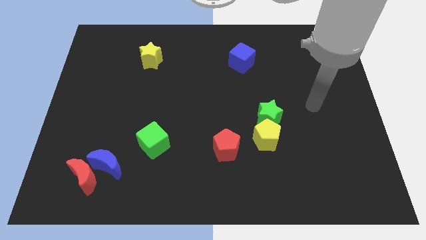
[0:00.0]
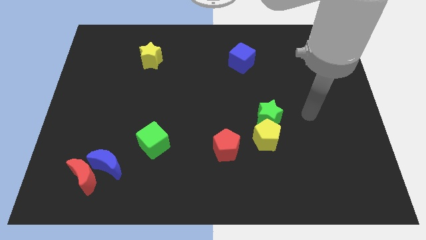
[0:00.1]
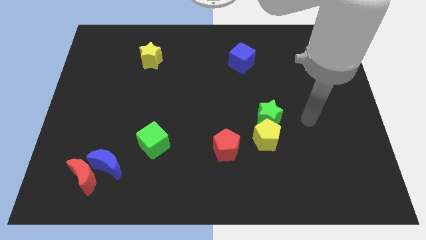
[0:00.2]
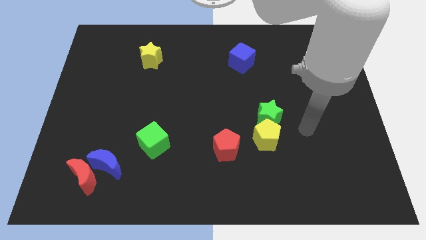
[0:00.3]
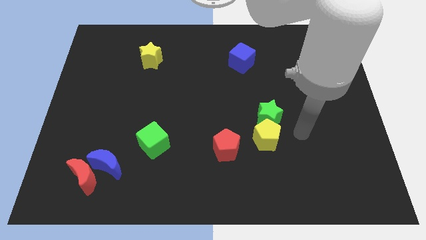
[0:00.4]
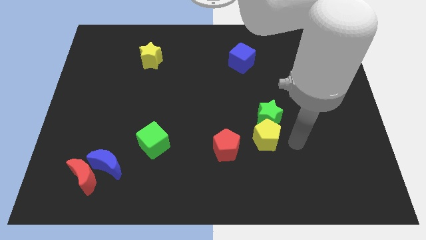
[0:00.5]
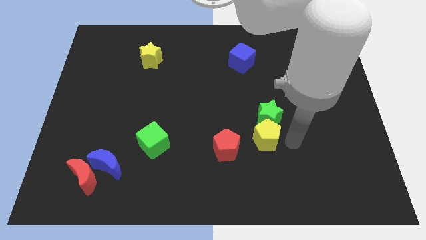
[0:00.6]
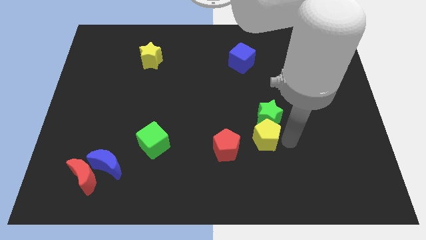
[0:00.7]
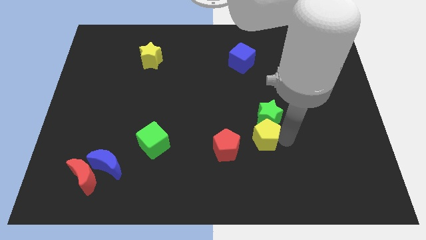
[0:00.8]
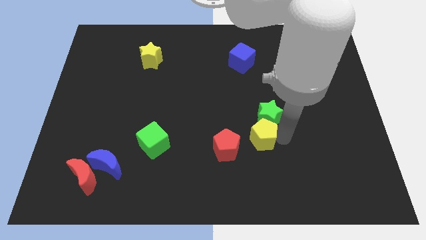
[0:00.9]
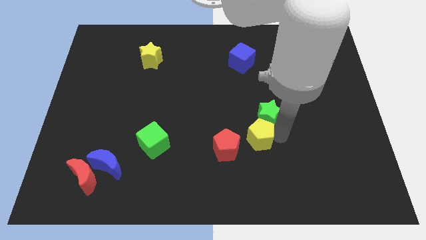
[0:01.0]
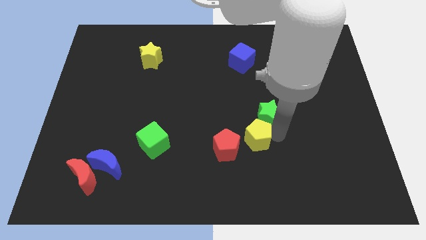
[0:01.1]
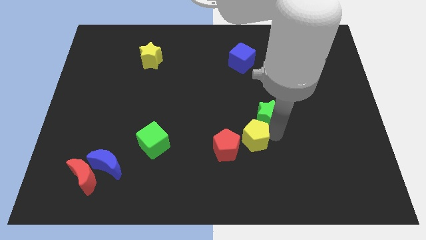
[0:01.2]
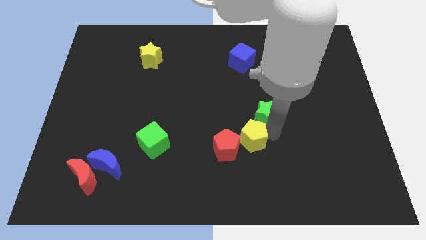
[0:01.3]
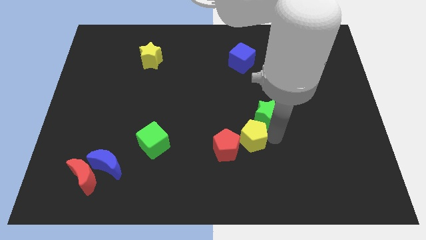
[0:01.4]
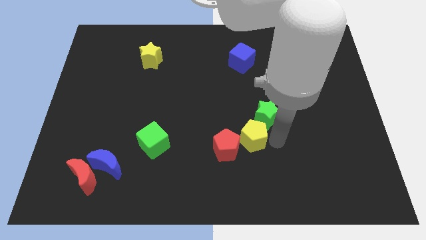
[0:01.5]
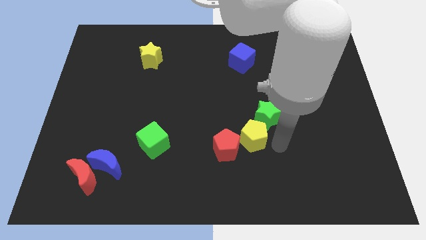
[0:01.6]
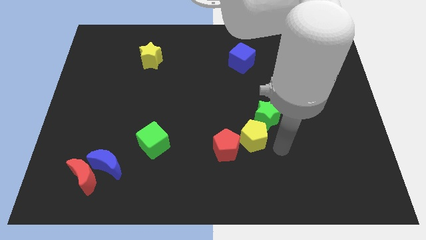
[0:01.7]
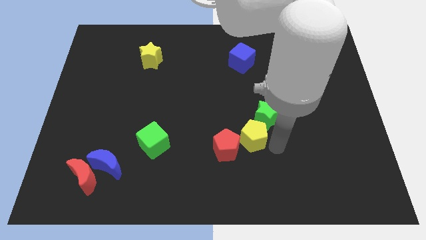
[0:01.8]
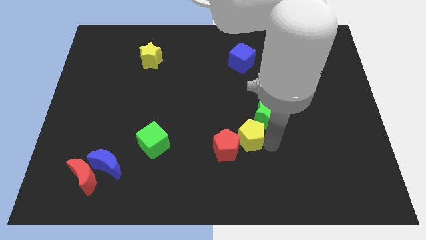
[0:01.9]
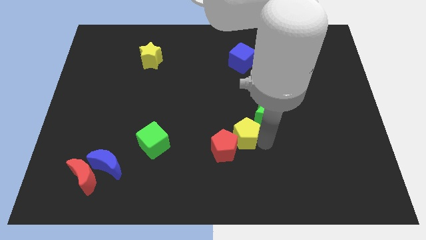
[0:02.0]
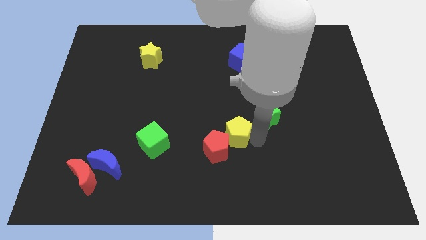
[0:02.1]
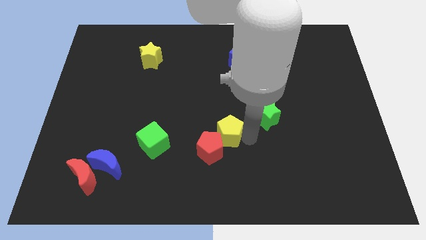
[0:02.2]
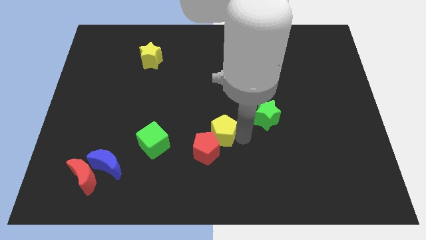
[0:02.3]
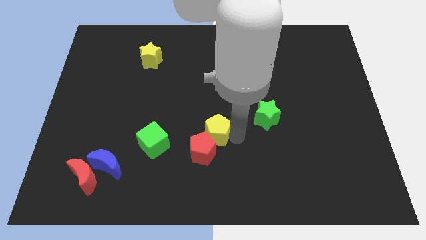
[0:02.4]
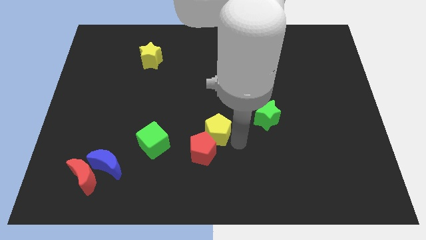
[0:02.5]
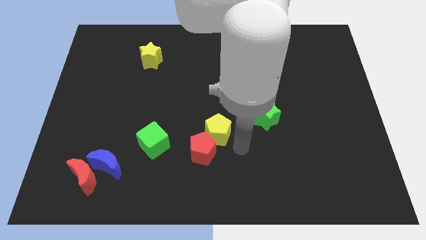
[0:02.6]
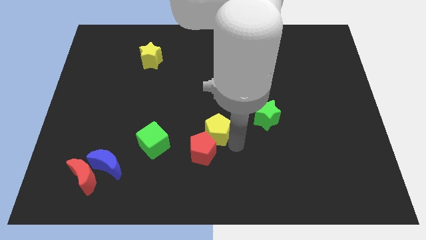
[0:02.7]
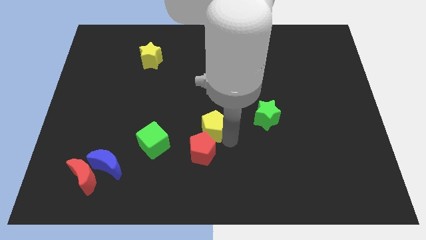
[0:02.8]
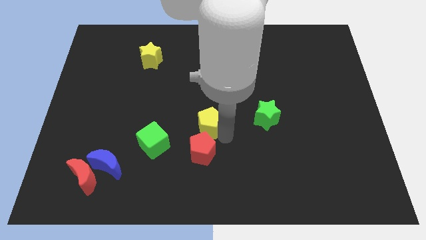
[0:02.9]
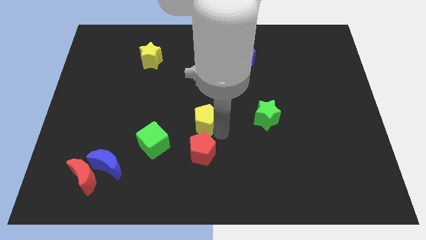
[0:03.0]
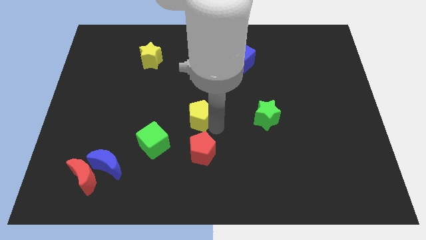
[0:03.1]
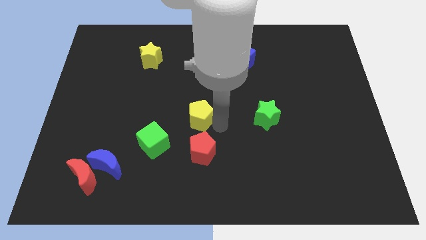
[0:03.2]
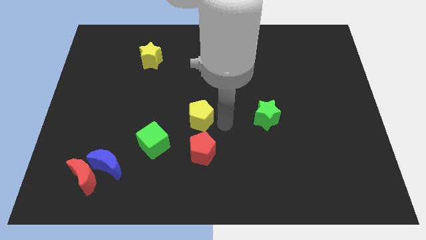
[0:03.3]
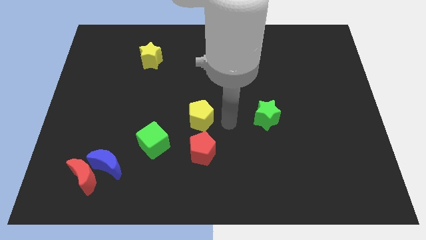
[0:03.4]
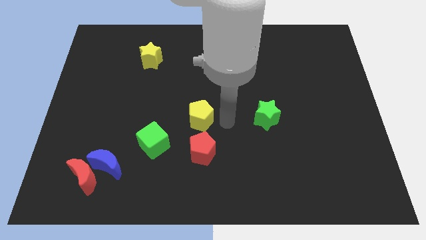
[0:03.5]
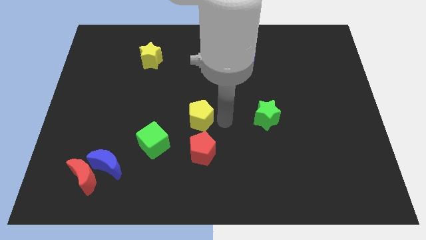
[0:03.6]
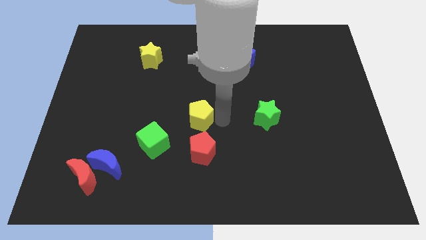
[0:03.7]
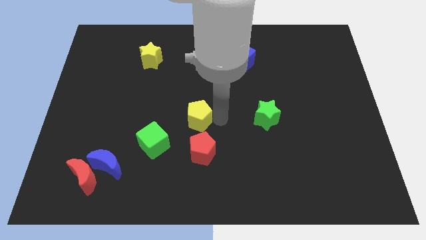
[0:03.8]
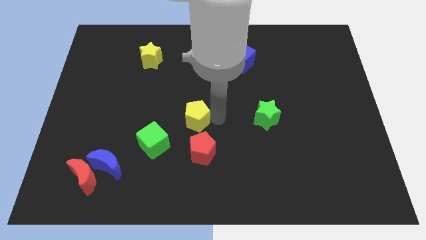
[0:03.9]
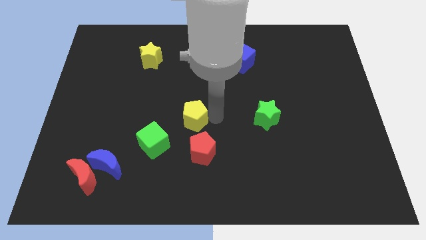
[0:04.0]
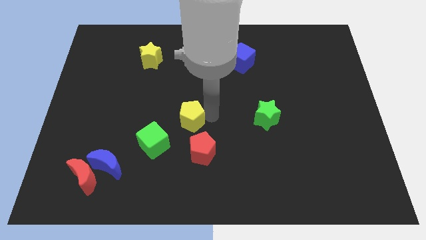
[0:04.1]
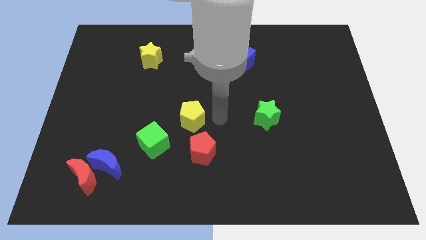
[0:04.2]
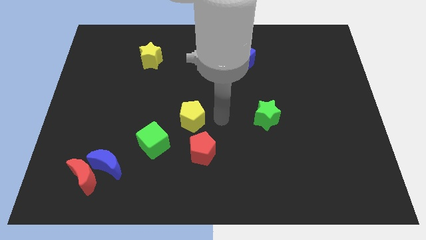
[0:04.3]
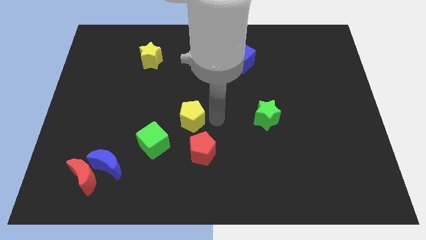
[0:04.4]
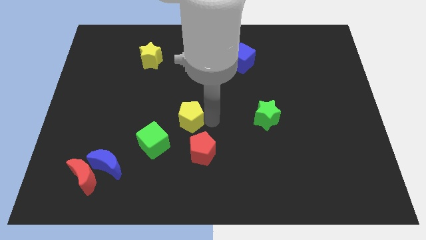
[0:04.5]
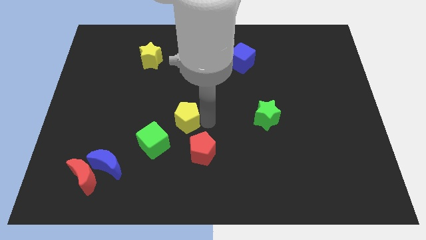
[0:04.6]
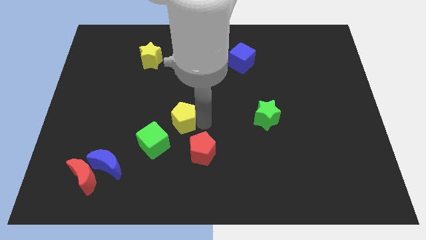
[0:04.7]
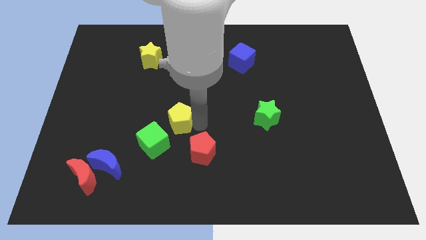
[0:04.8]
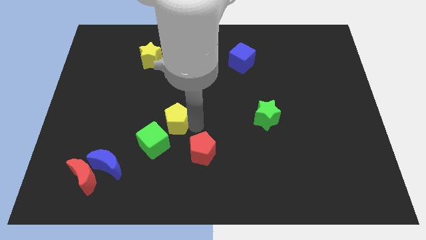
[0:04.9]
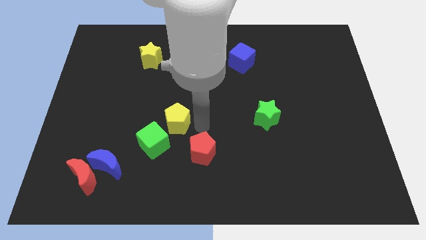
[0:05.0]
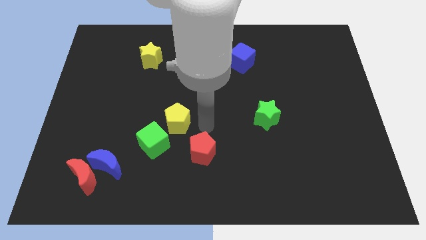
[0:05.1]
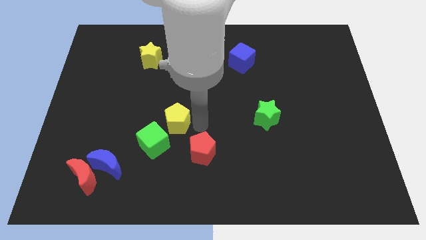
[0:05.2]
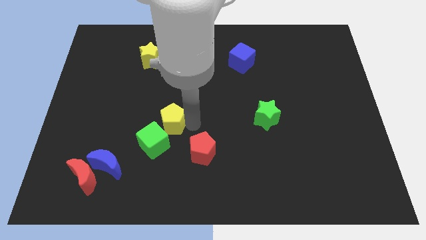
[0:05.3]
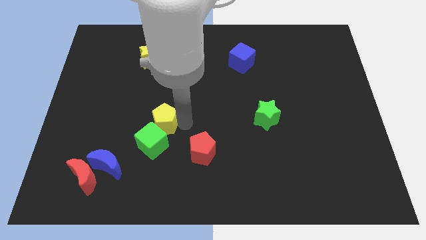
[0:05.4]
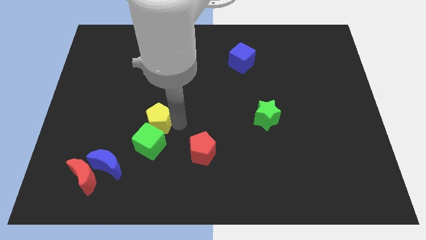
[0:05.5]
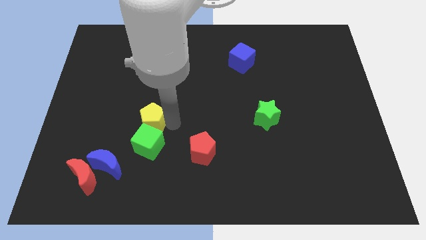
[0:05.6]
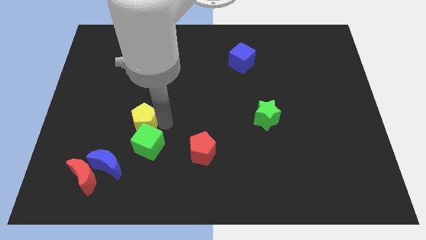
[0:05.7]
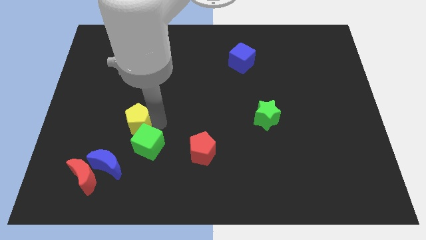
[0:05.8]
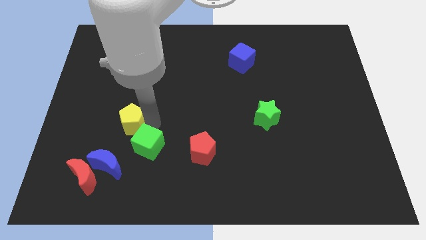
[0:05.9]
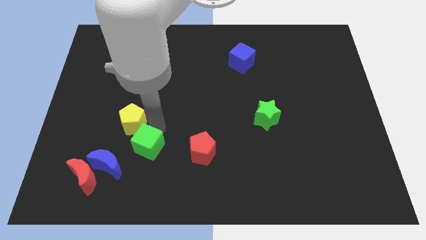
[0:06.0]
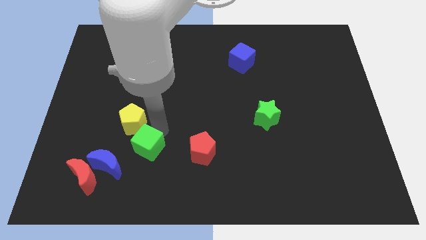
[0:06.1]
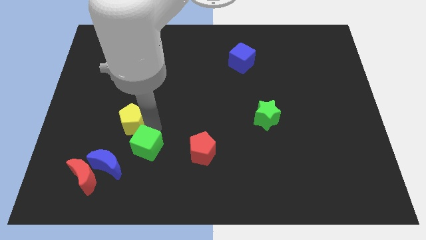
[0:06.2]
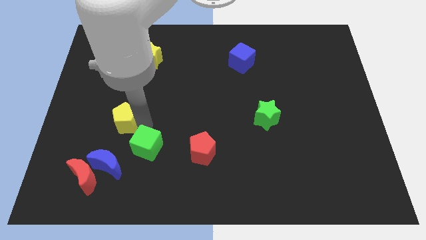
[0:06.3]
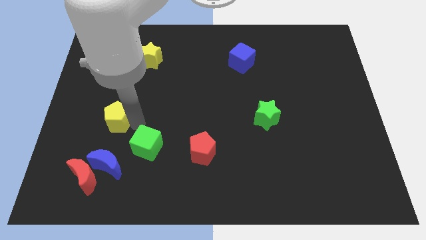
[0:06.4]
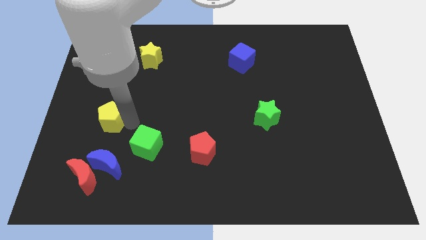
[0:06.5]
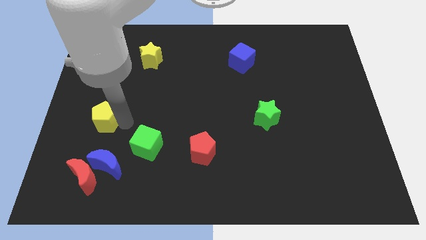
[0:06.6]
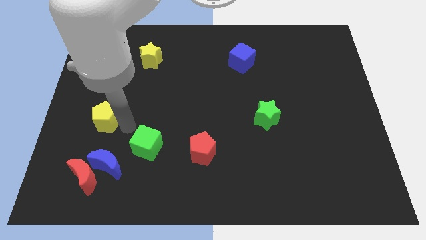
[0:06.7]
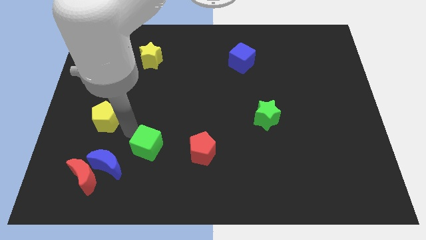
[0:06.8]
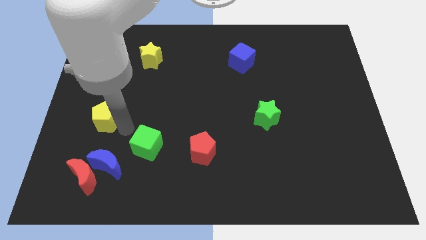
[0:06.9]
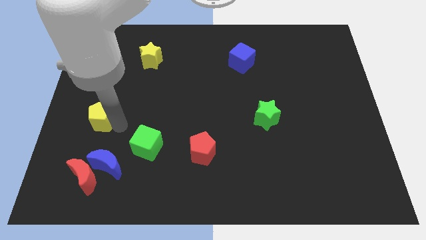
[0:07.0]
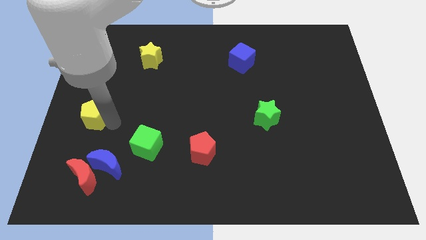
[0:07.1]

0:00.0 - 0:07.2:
slide the yellow pentagon to the center left

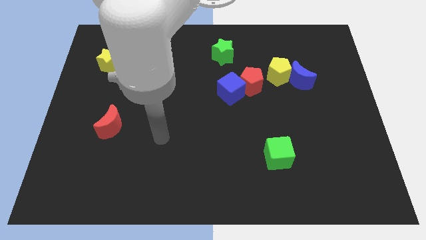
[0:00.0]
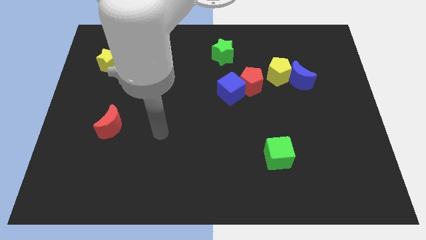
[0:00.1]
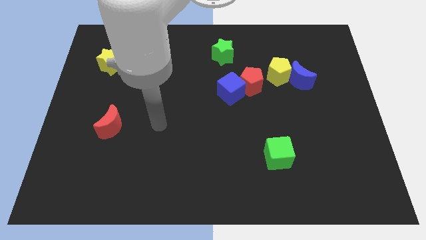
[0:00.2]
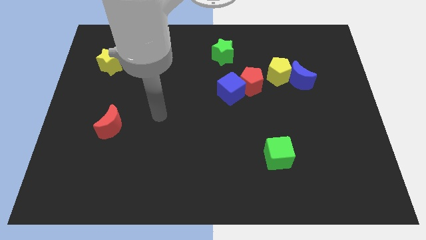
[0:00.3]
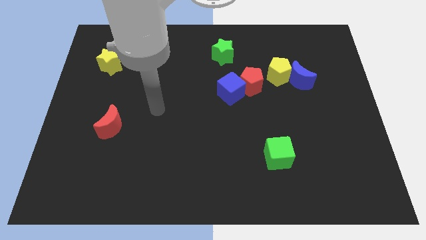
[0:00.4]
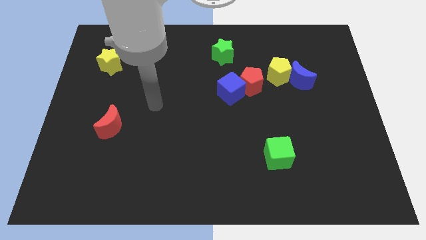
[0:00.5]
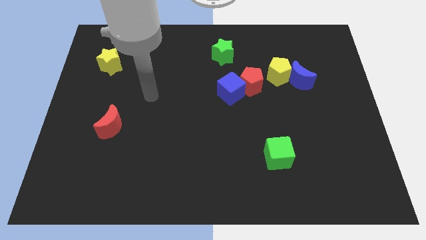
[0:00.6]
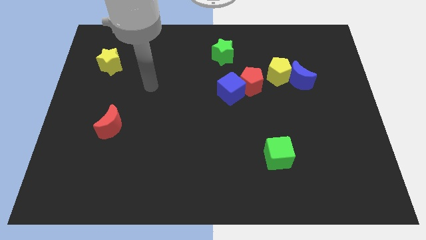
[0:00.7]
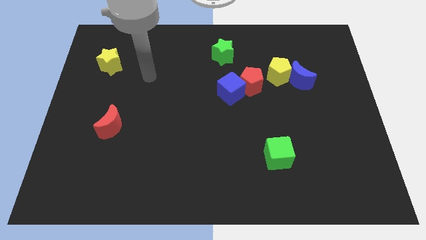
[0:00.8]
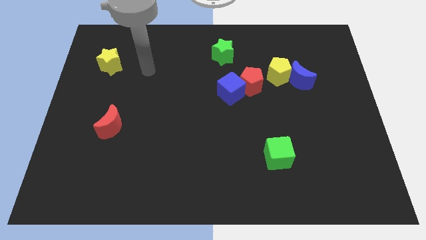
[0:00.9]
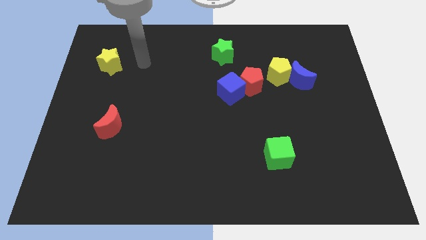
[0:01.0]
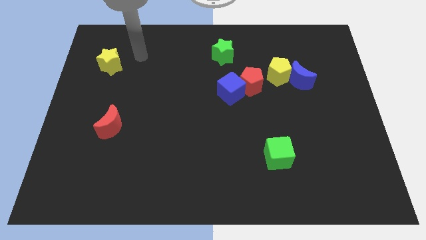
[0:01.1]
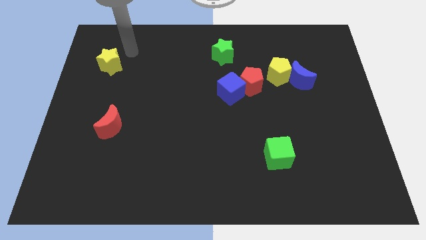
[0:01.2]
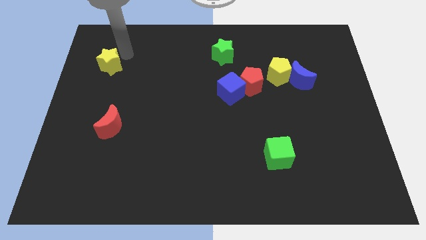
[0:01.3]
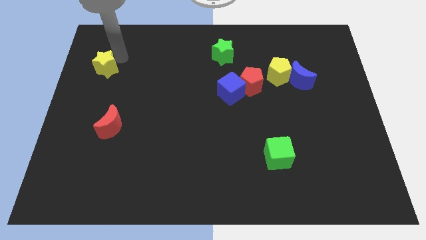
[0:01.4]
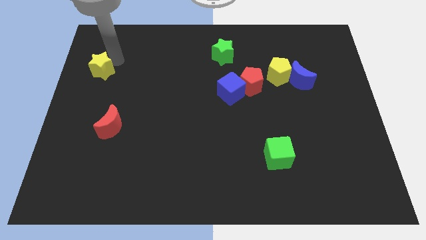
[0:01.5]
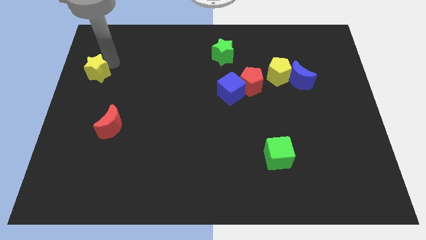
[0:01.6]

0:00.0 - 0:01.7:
slide the yellow star to the left side of the board
